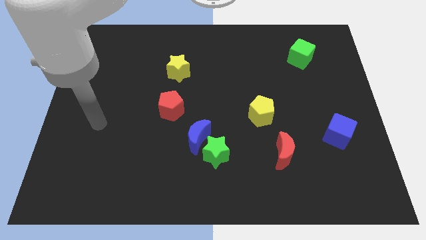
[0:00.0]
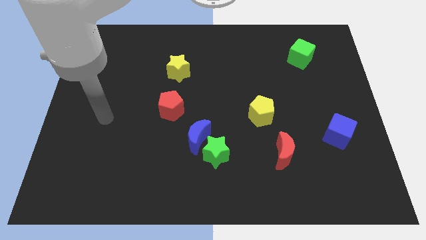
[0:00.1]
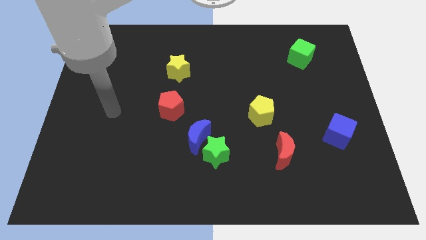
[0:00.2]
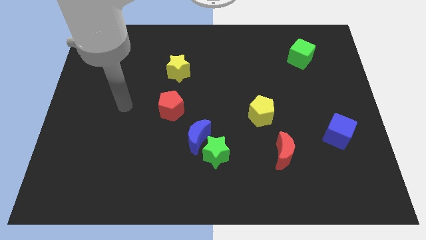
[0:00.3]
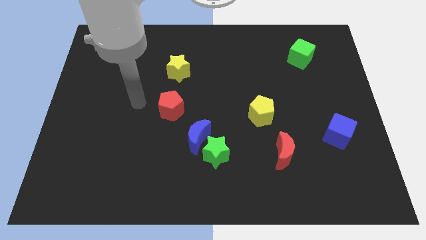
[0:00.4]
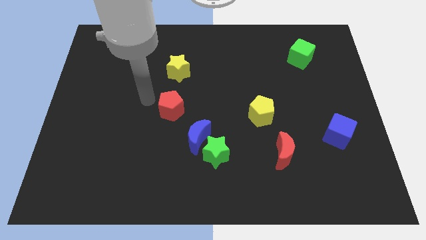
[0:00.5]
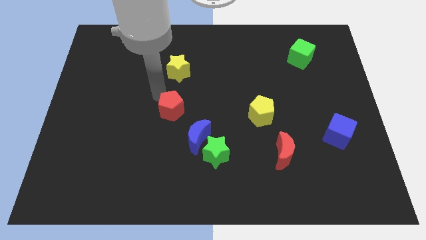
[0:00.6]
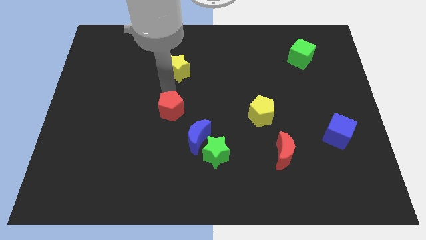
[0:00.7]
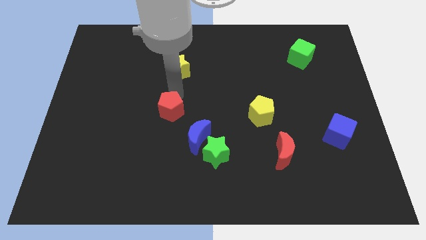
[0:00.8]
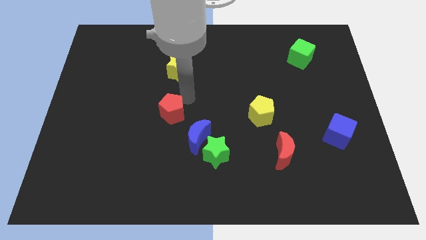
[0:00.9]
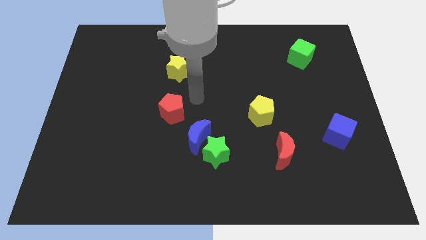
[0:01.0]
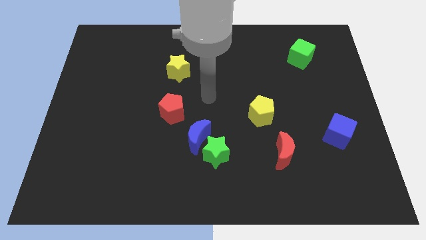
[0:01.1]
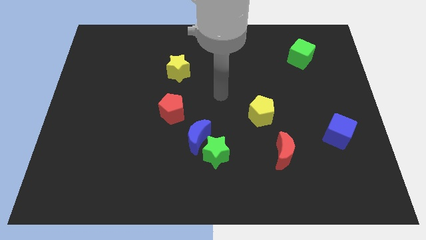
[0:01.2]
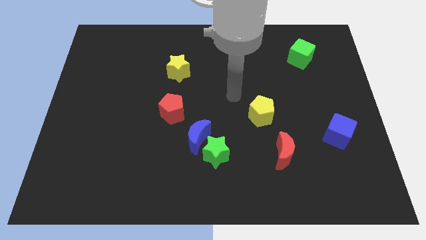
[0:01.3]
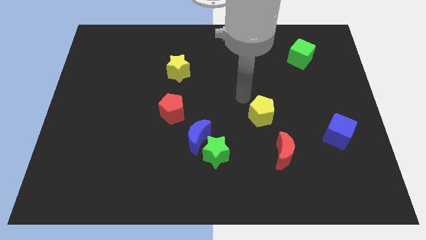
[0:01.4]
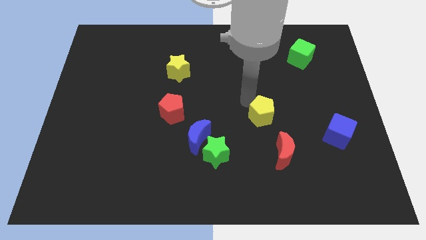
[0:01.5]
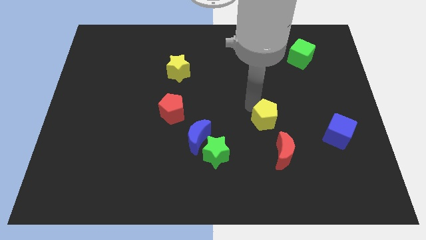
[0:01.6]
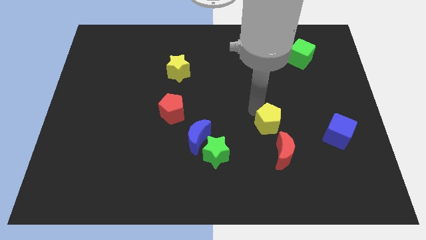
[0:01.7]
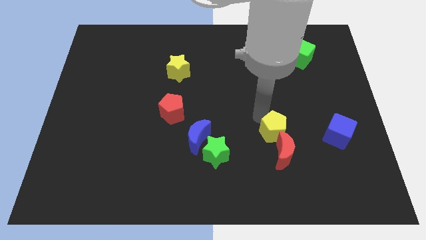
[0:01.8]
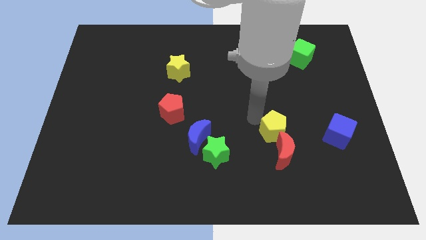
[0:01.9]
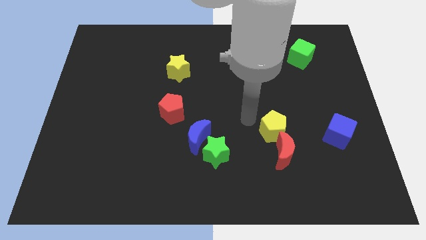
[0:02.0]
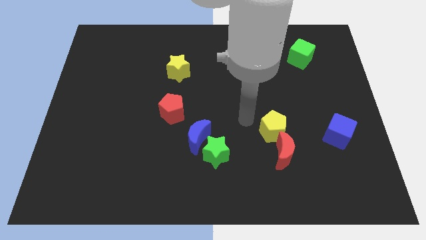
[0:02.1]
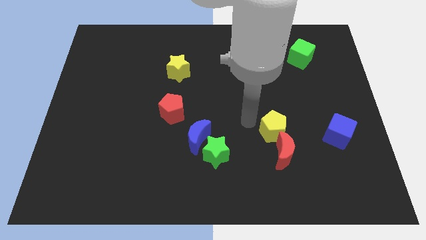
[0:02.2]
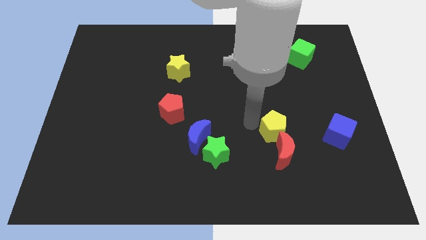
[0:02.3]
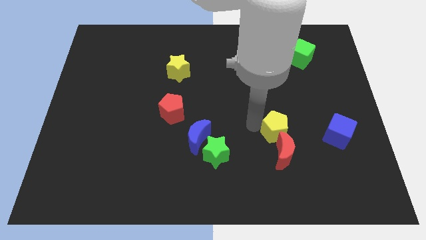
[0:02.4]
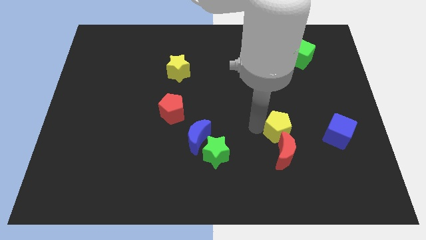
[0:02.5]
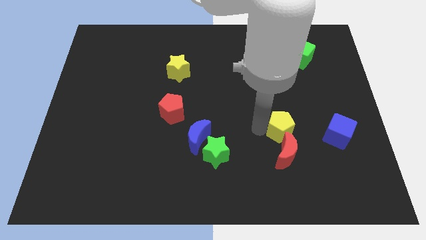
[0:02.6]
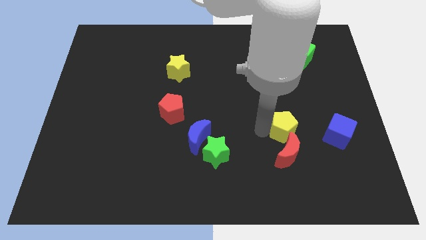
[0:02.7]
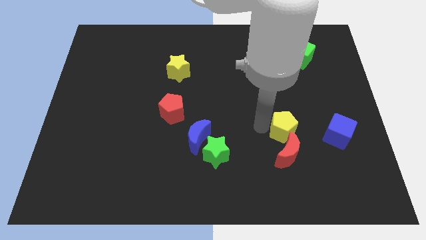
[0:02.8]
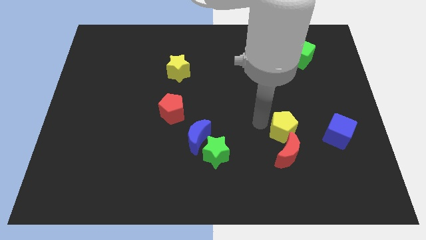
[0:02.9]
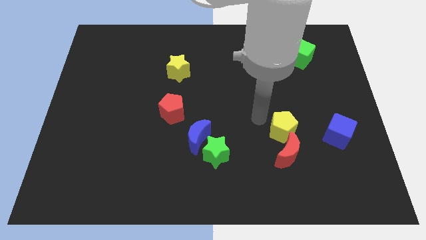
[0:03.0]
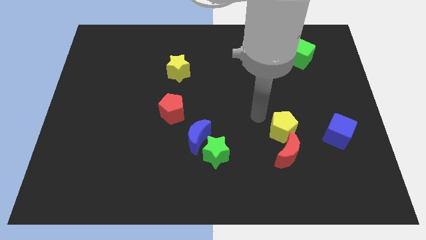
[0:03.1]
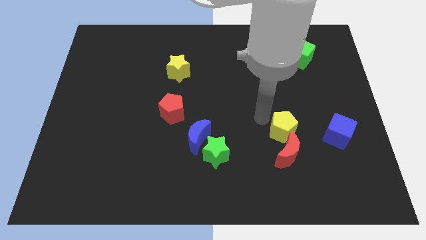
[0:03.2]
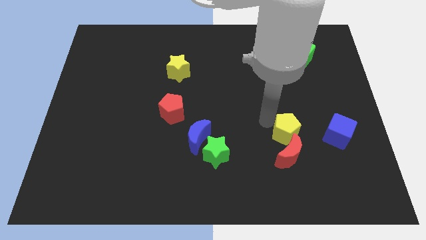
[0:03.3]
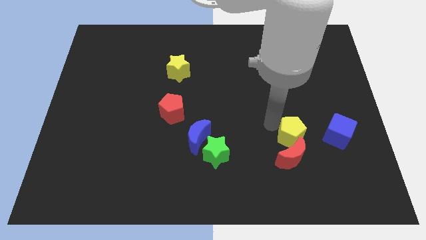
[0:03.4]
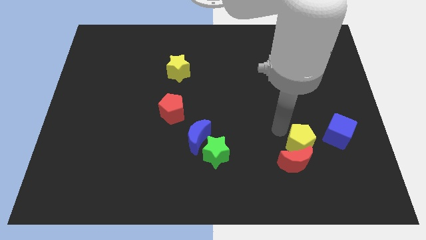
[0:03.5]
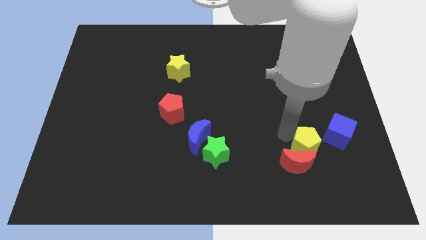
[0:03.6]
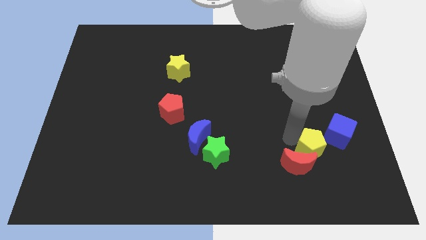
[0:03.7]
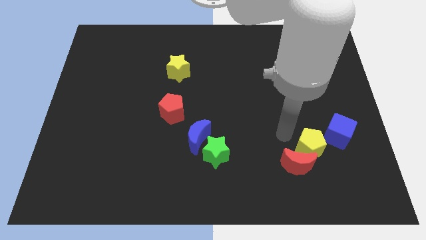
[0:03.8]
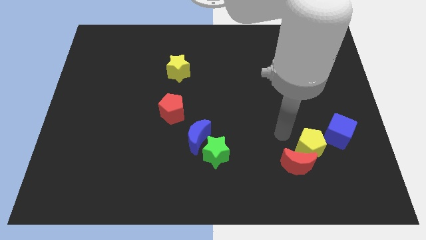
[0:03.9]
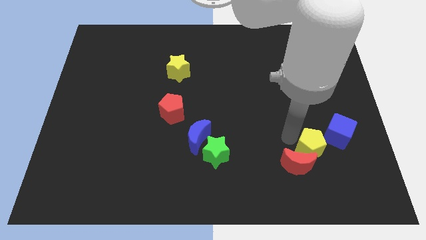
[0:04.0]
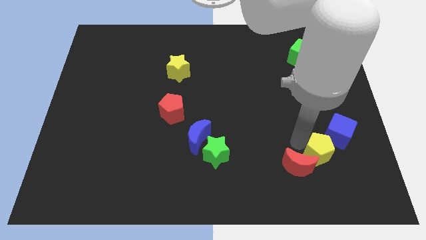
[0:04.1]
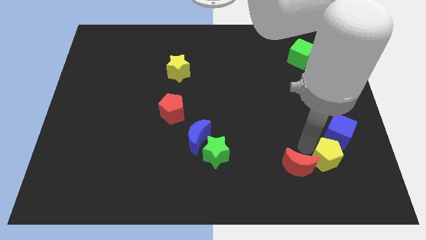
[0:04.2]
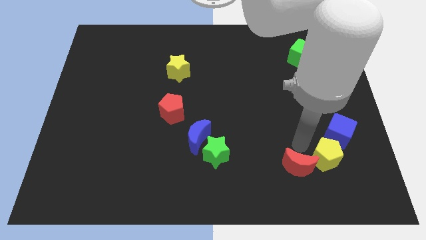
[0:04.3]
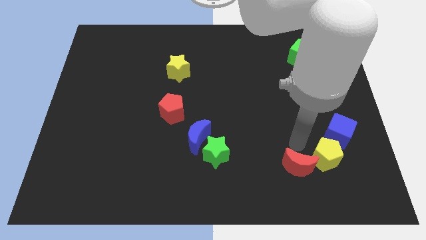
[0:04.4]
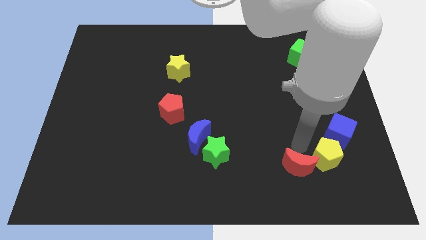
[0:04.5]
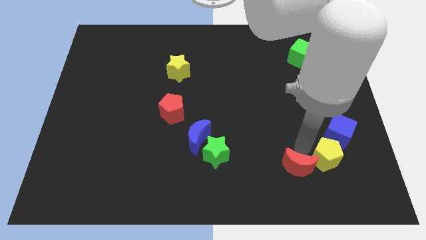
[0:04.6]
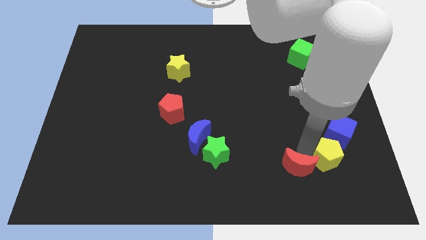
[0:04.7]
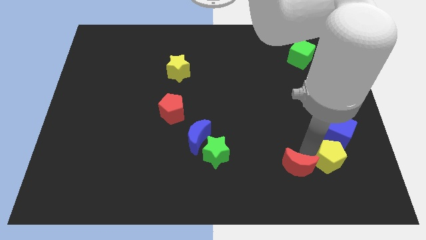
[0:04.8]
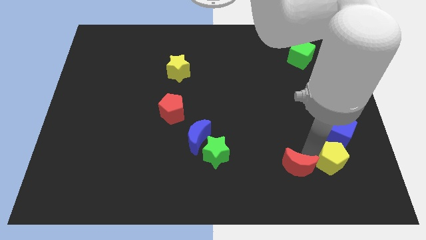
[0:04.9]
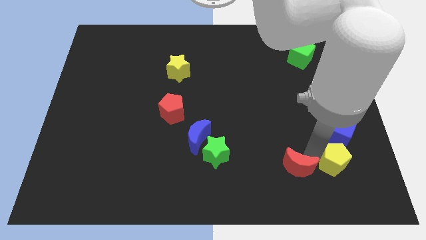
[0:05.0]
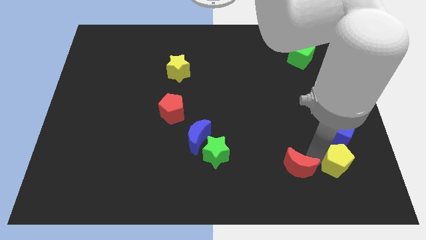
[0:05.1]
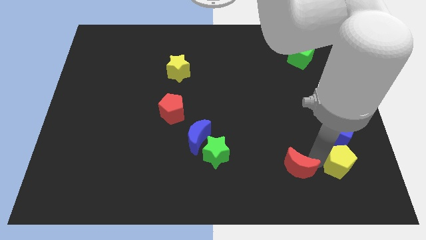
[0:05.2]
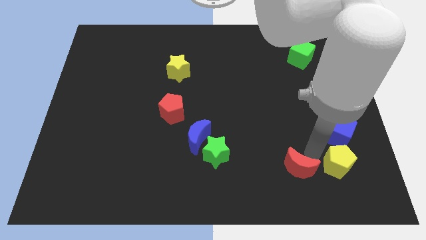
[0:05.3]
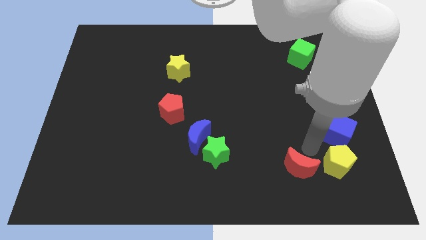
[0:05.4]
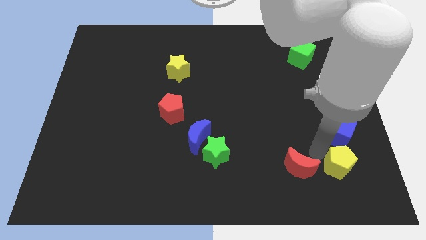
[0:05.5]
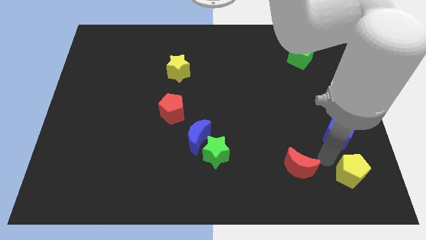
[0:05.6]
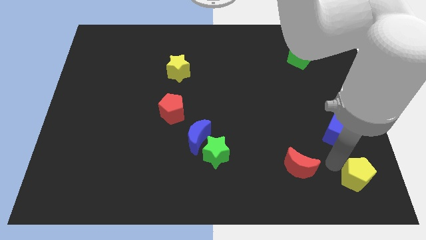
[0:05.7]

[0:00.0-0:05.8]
push the yellow pentagon to the bottom right corner

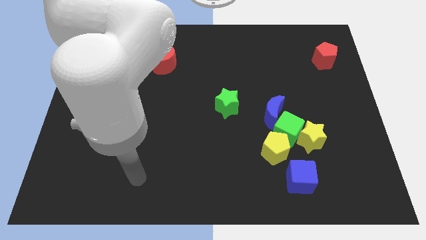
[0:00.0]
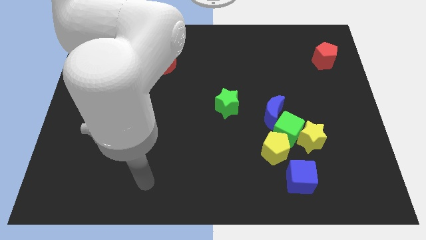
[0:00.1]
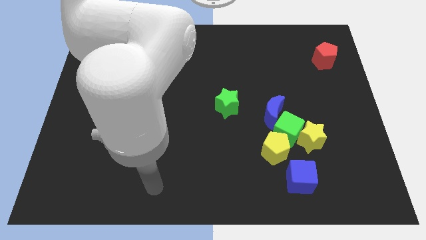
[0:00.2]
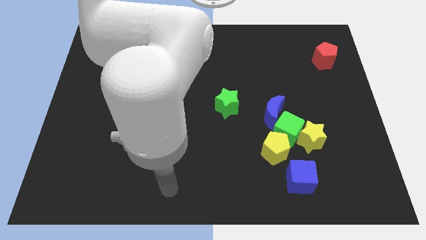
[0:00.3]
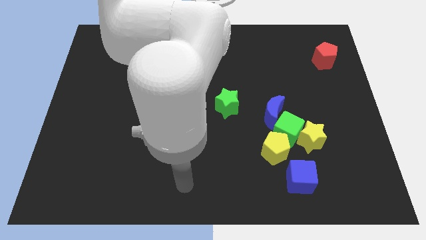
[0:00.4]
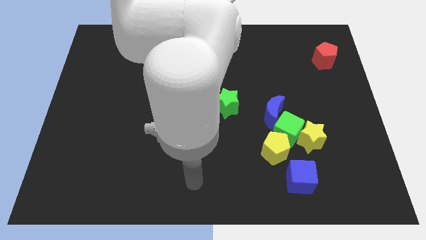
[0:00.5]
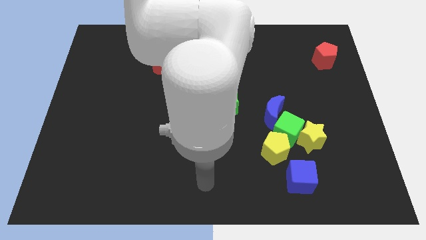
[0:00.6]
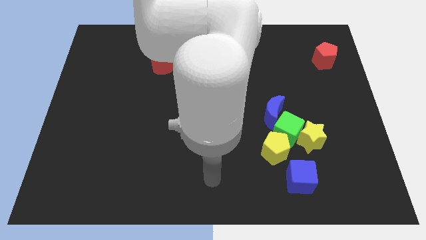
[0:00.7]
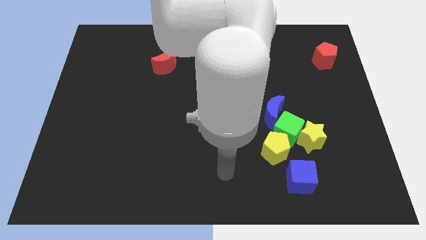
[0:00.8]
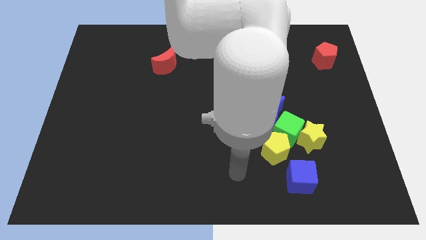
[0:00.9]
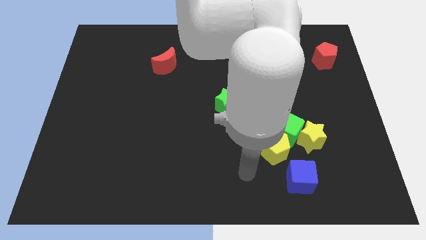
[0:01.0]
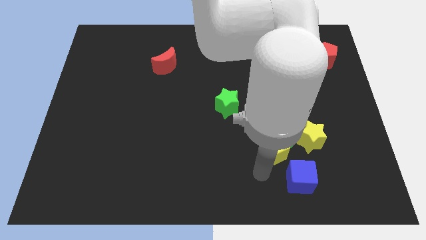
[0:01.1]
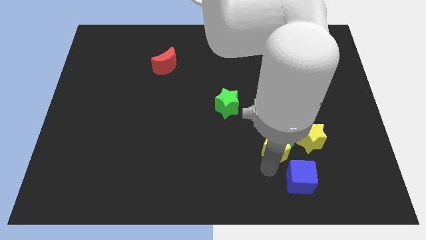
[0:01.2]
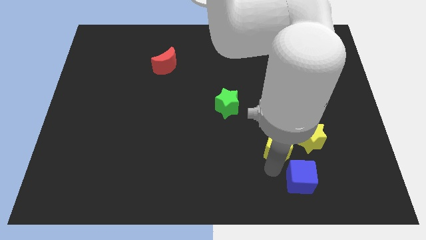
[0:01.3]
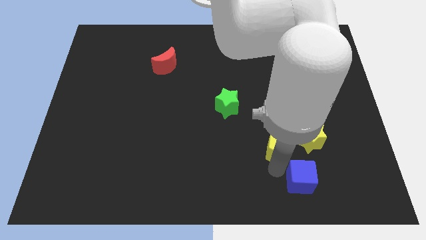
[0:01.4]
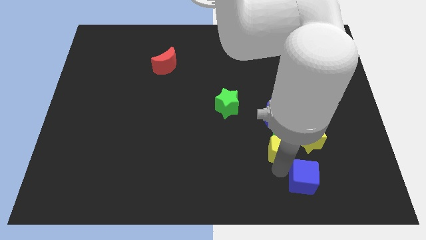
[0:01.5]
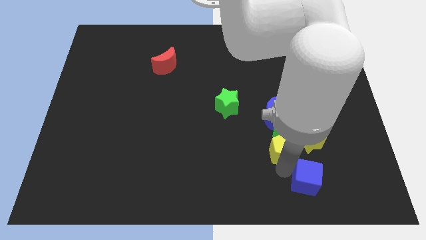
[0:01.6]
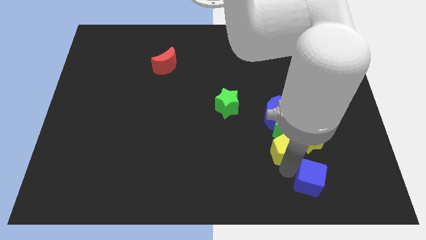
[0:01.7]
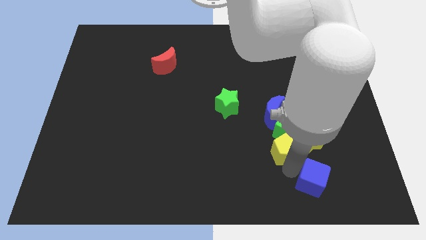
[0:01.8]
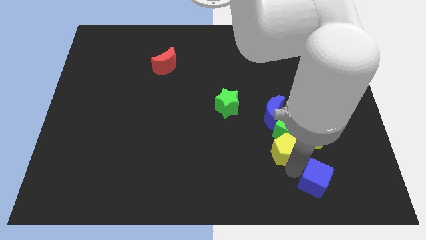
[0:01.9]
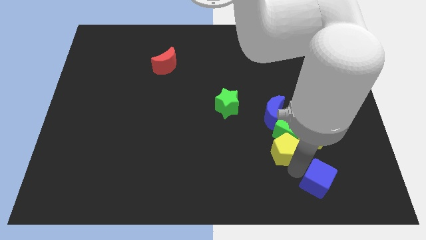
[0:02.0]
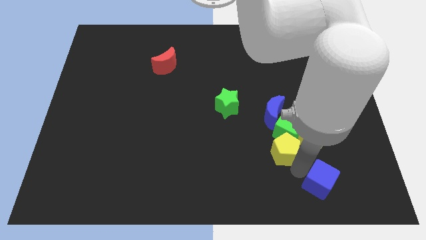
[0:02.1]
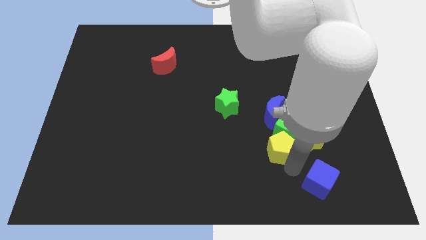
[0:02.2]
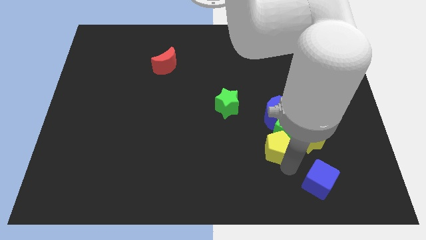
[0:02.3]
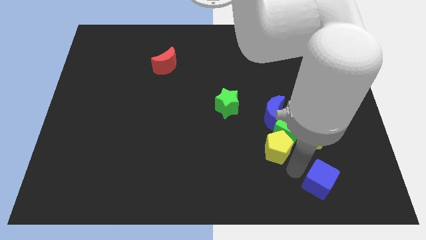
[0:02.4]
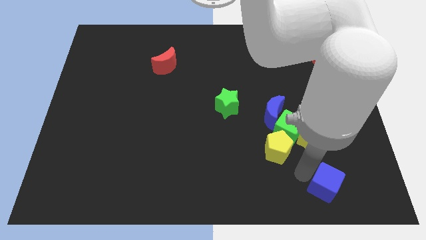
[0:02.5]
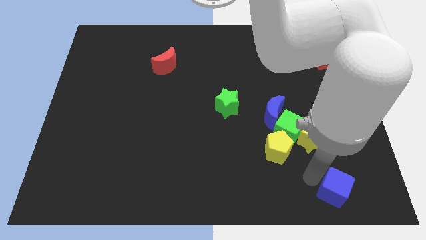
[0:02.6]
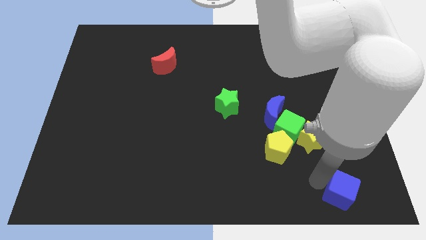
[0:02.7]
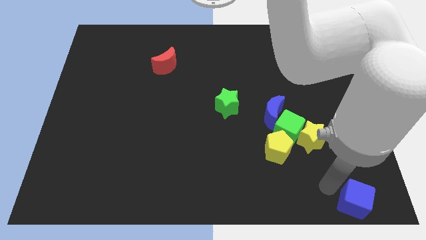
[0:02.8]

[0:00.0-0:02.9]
move the blue cube to the bottom right corner
